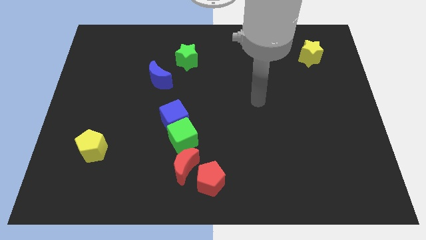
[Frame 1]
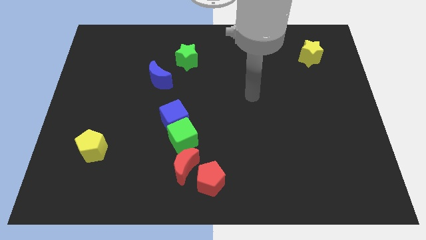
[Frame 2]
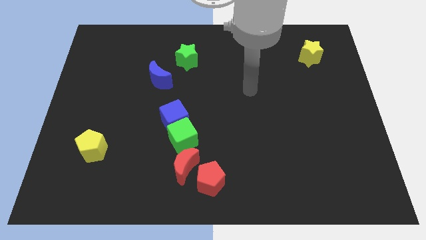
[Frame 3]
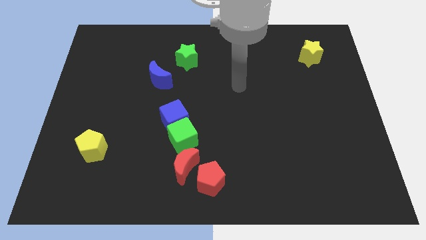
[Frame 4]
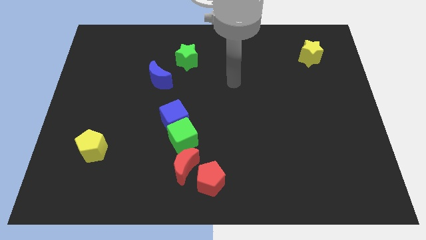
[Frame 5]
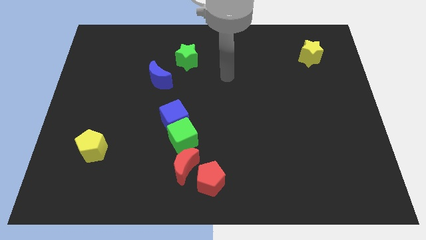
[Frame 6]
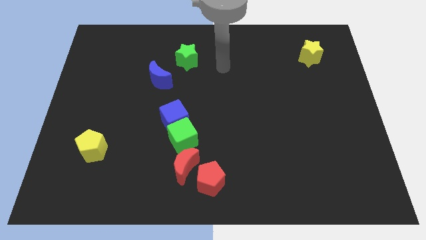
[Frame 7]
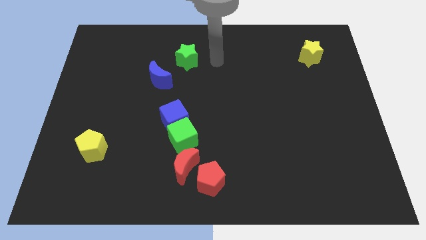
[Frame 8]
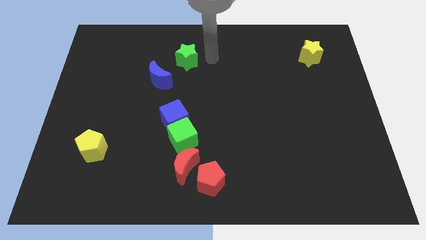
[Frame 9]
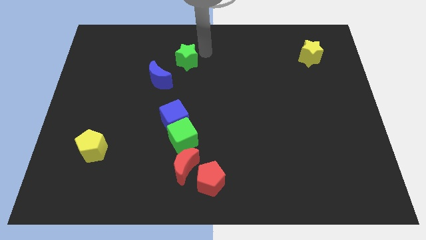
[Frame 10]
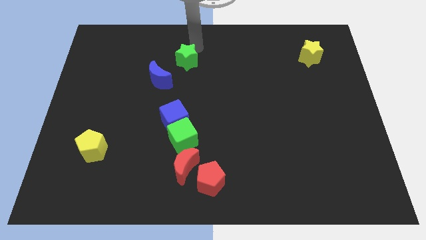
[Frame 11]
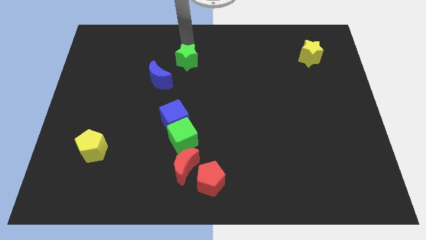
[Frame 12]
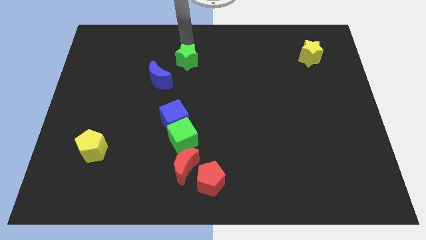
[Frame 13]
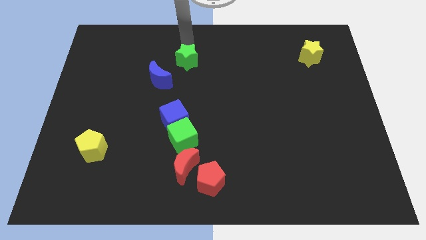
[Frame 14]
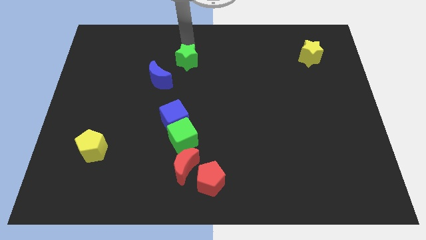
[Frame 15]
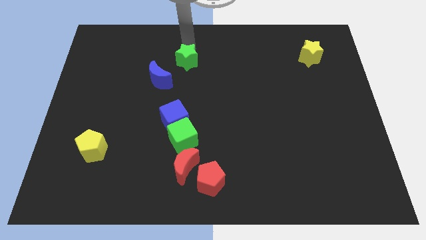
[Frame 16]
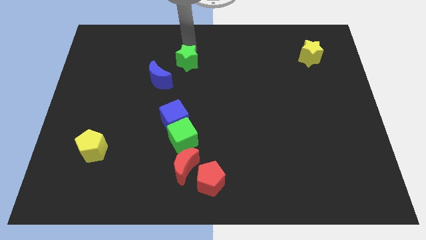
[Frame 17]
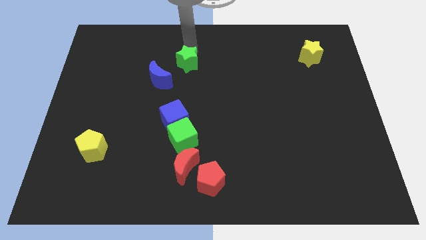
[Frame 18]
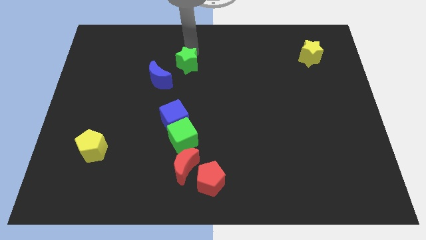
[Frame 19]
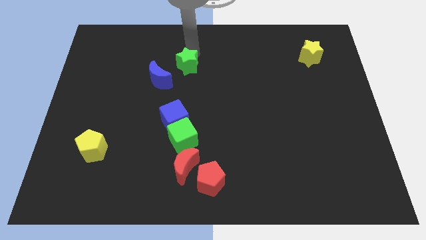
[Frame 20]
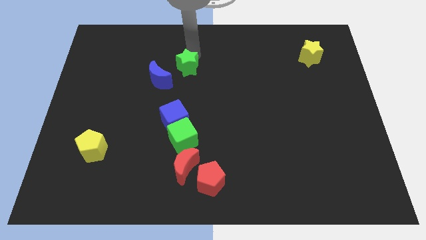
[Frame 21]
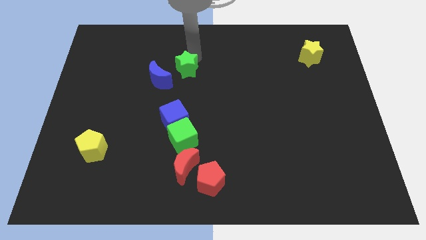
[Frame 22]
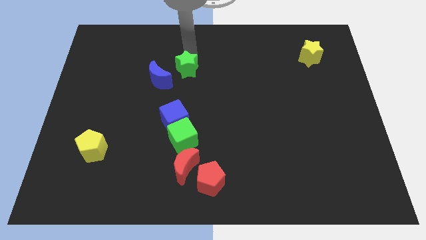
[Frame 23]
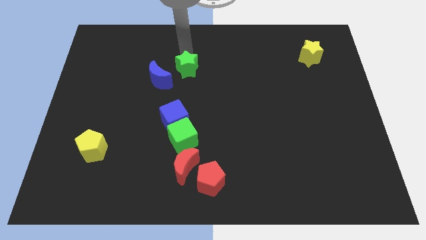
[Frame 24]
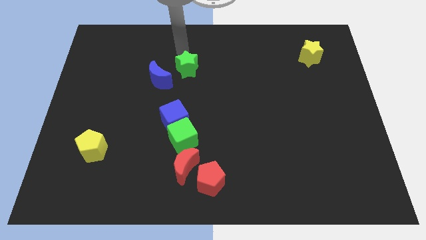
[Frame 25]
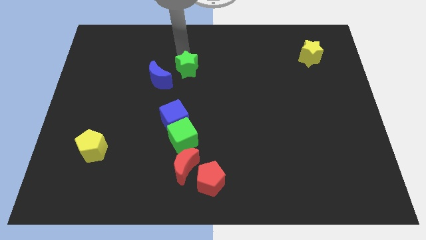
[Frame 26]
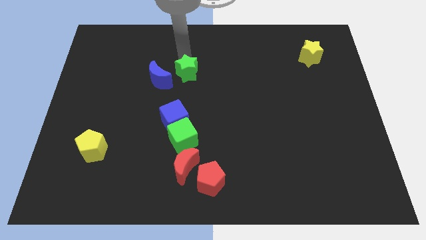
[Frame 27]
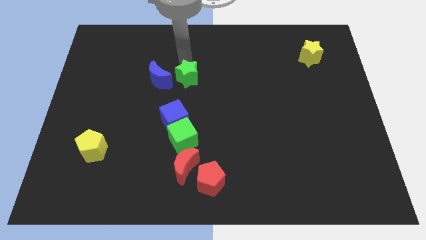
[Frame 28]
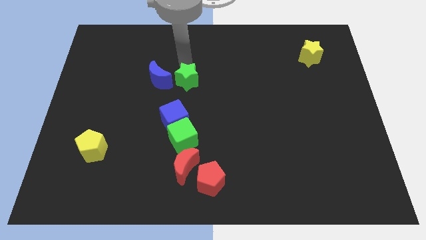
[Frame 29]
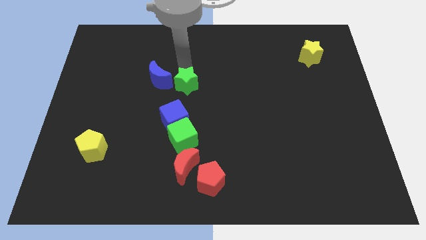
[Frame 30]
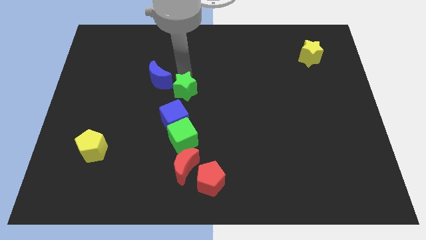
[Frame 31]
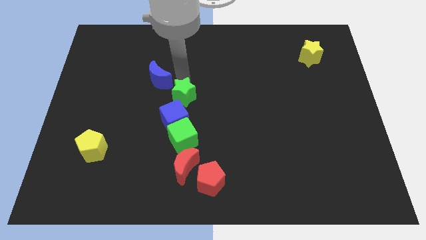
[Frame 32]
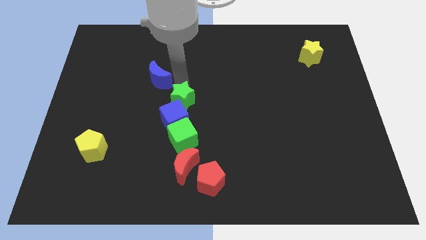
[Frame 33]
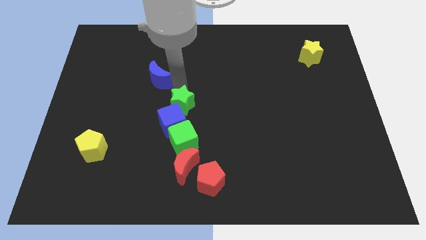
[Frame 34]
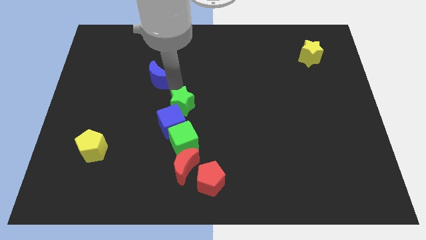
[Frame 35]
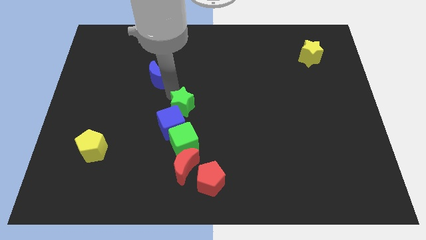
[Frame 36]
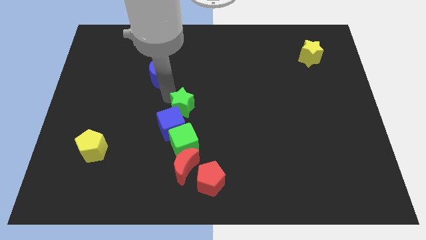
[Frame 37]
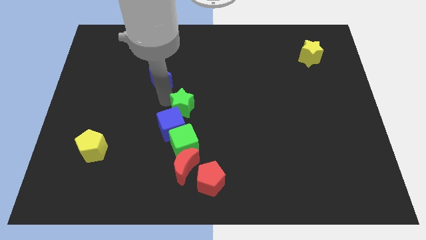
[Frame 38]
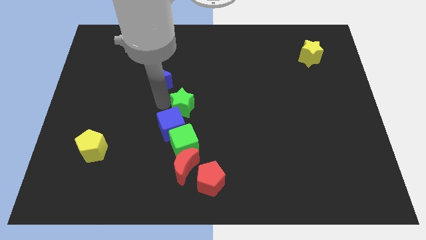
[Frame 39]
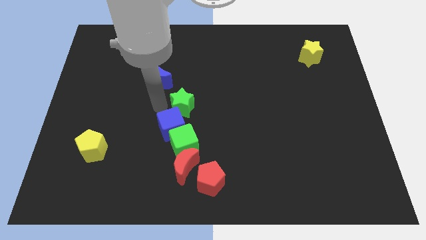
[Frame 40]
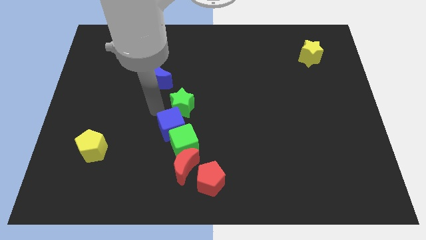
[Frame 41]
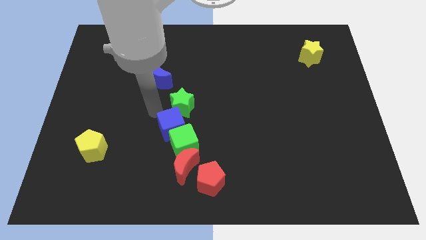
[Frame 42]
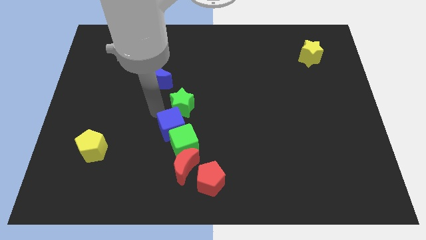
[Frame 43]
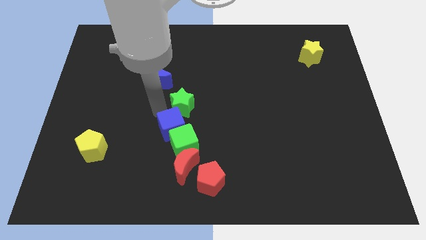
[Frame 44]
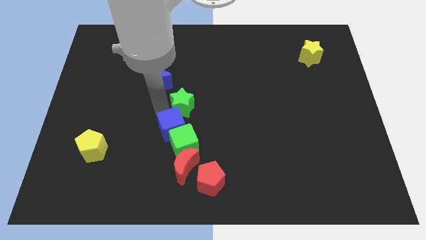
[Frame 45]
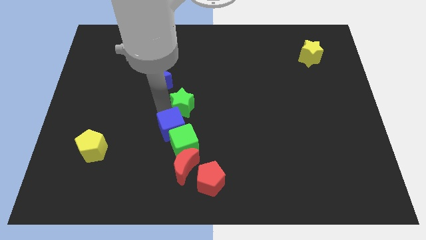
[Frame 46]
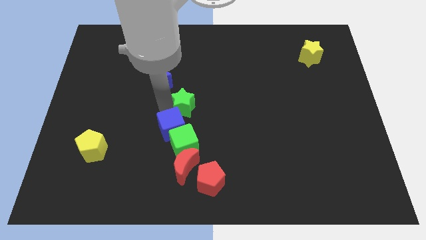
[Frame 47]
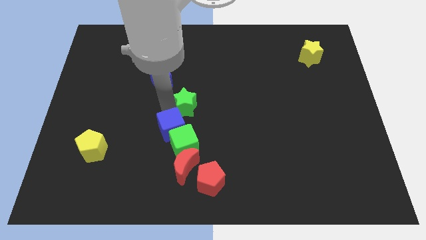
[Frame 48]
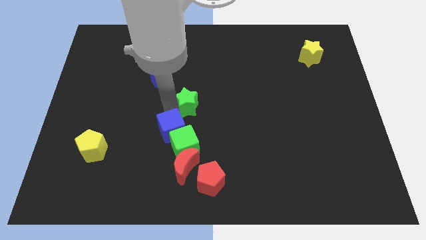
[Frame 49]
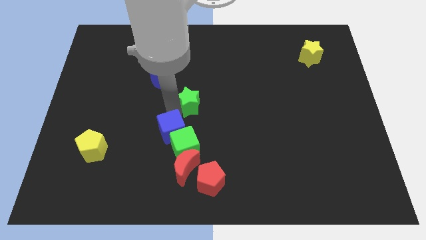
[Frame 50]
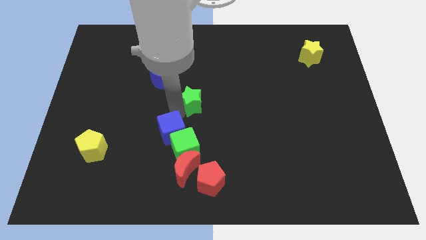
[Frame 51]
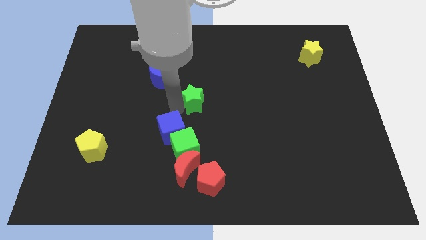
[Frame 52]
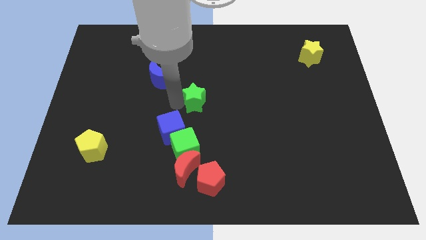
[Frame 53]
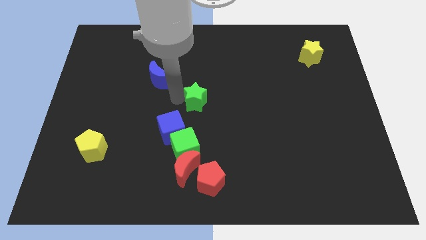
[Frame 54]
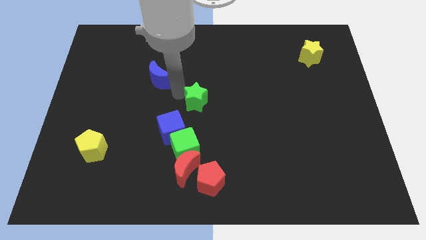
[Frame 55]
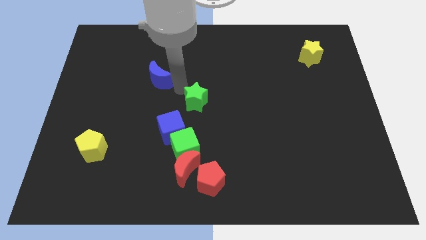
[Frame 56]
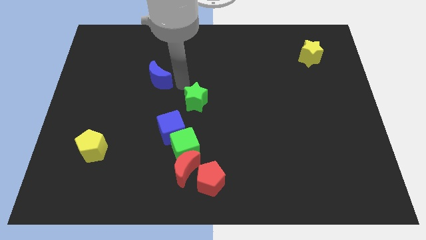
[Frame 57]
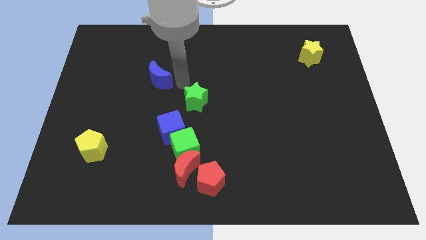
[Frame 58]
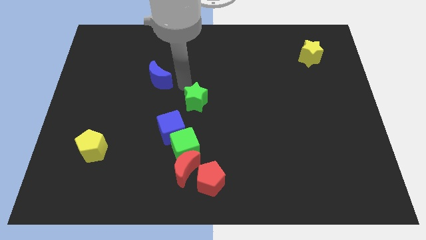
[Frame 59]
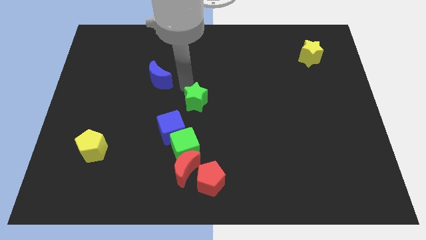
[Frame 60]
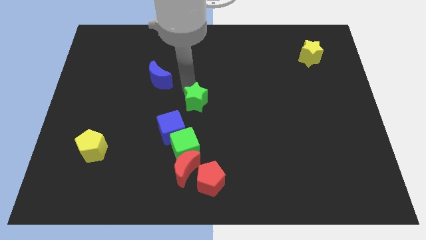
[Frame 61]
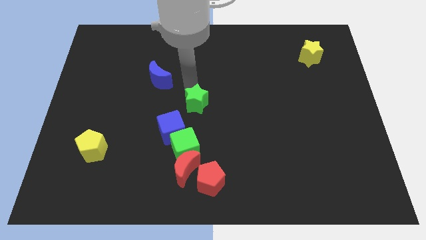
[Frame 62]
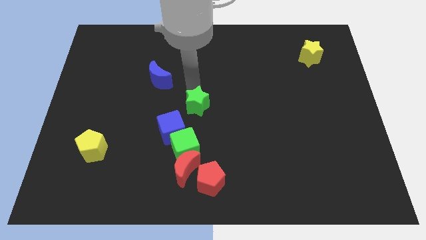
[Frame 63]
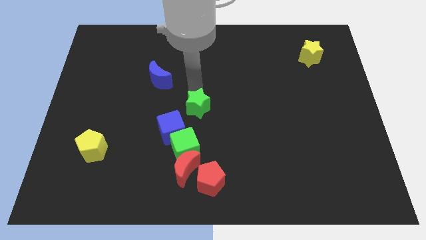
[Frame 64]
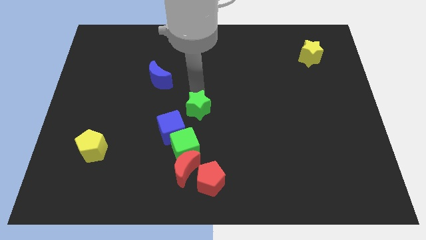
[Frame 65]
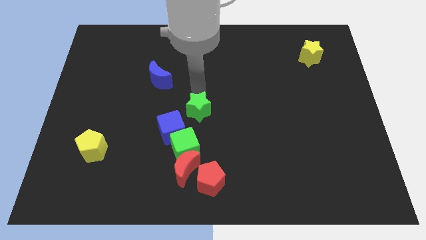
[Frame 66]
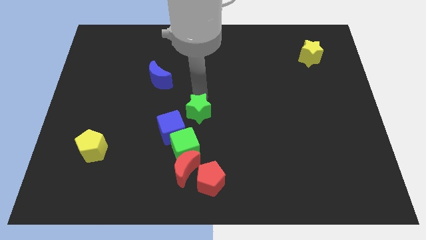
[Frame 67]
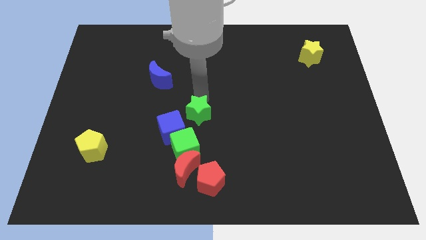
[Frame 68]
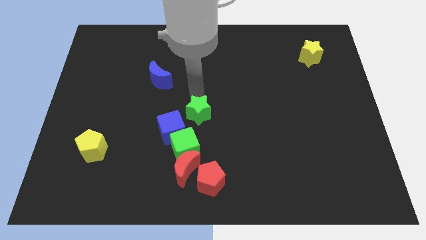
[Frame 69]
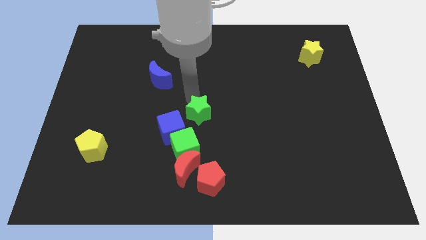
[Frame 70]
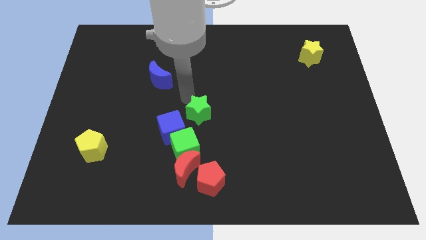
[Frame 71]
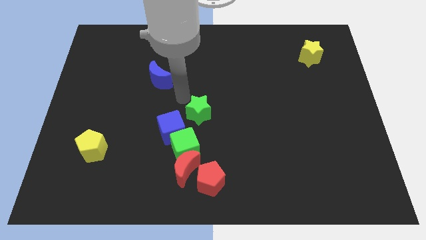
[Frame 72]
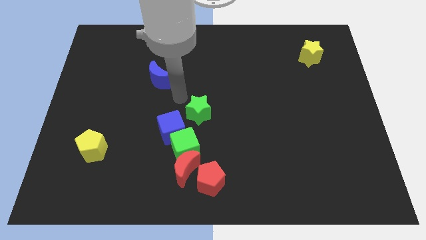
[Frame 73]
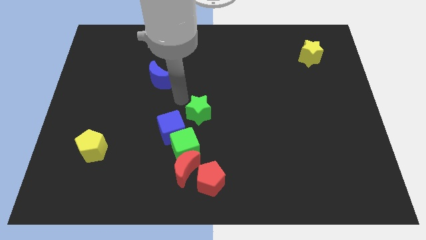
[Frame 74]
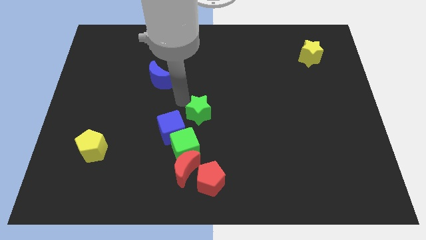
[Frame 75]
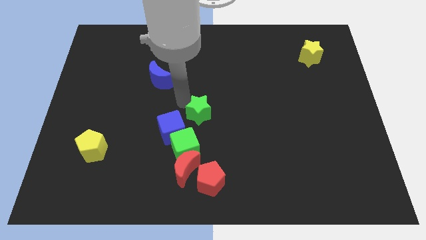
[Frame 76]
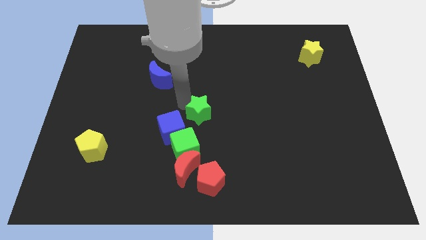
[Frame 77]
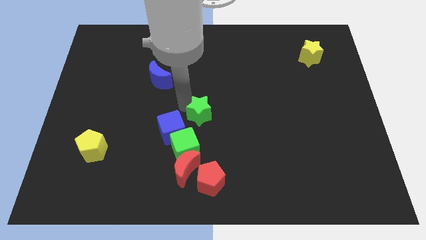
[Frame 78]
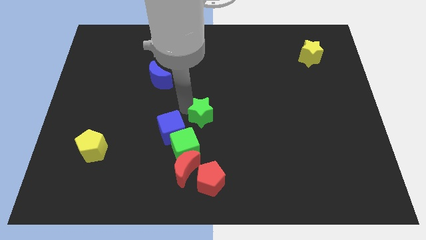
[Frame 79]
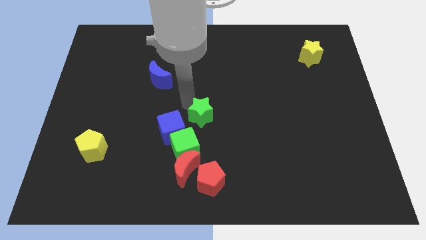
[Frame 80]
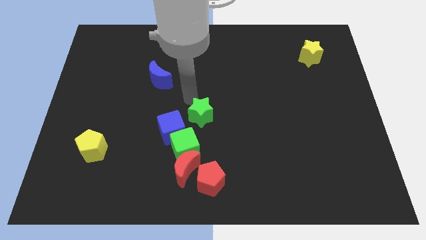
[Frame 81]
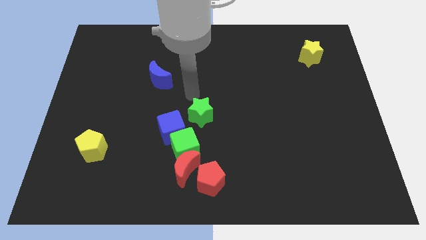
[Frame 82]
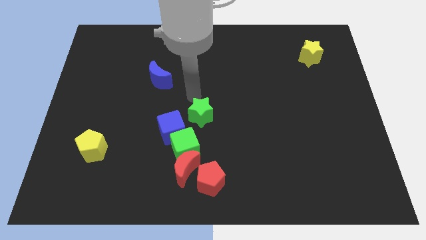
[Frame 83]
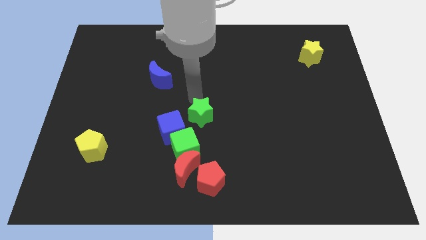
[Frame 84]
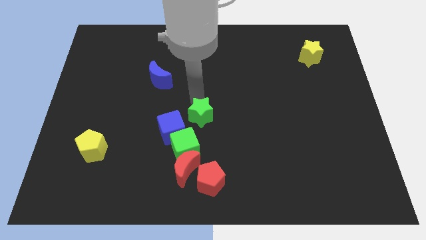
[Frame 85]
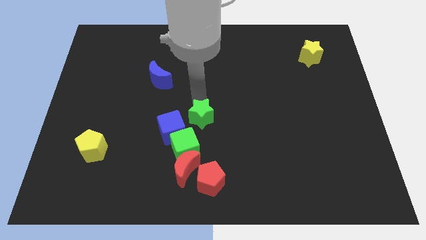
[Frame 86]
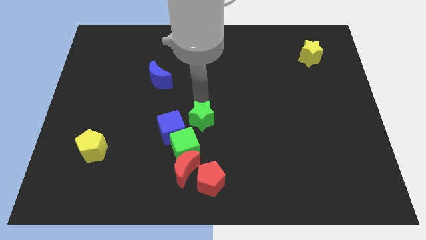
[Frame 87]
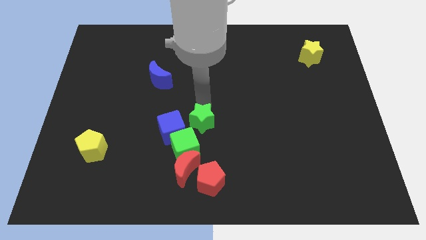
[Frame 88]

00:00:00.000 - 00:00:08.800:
move the green star above the red pentagon
